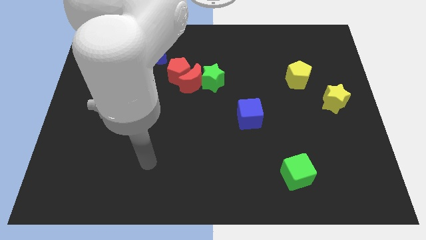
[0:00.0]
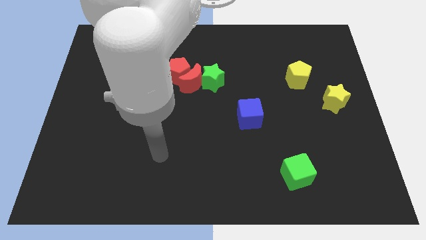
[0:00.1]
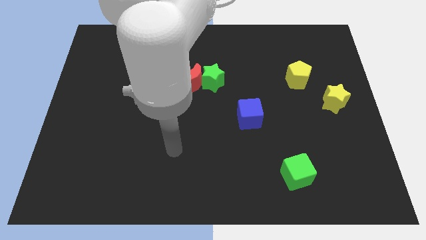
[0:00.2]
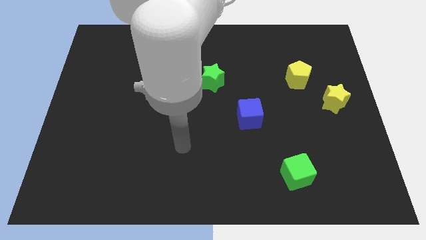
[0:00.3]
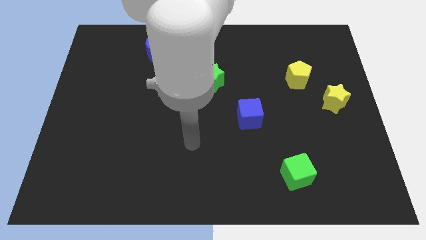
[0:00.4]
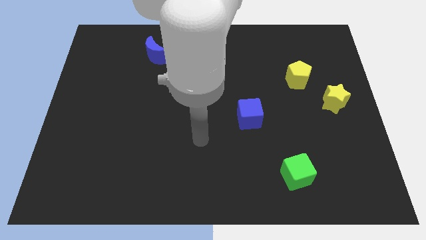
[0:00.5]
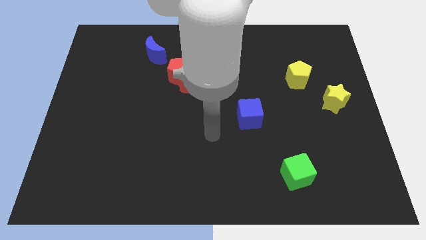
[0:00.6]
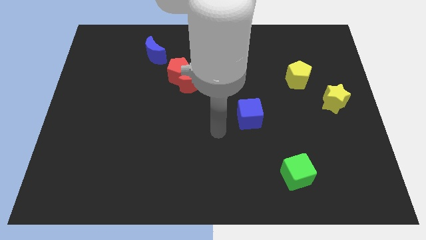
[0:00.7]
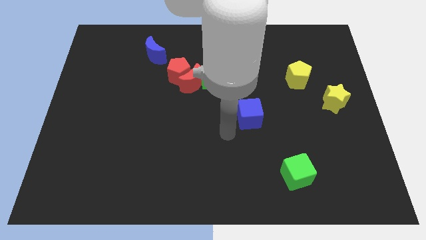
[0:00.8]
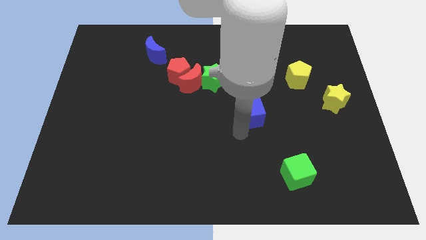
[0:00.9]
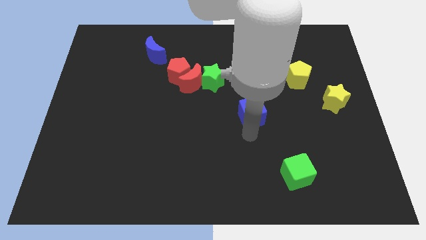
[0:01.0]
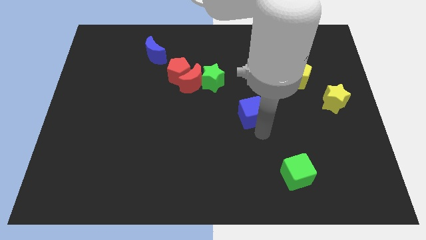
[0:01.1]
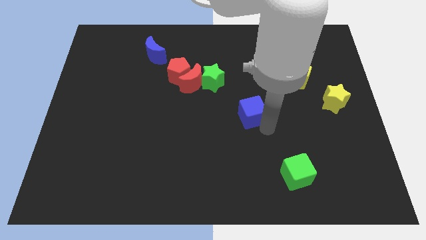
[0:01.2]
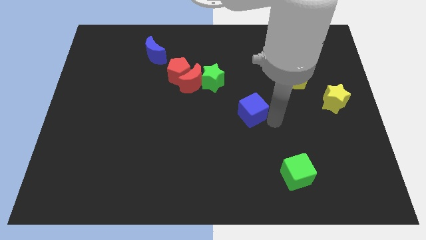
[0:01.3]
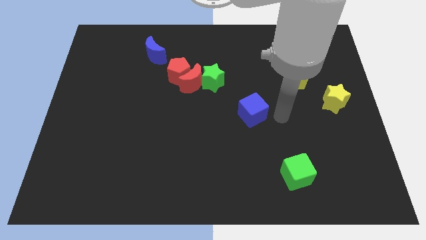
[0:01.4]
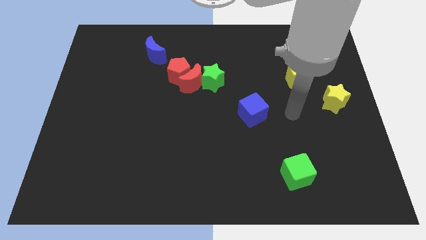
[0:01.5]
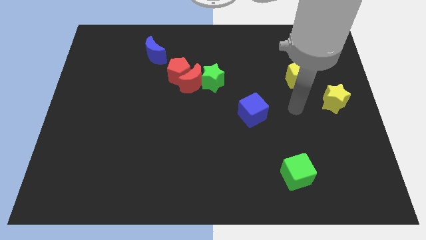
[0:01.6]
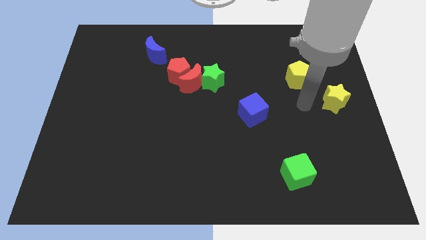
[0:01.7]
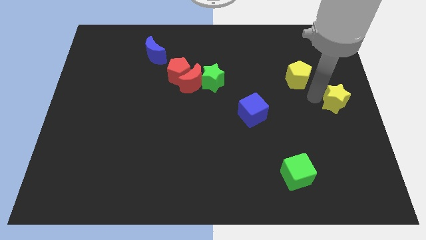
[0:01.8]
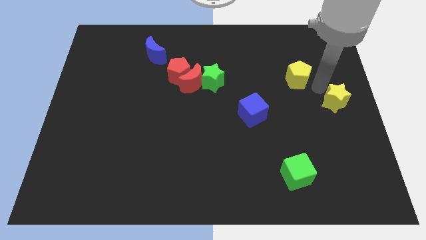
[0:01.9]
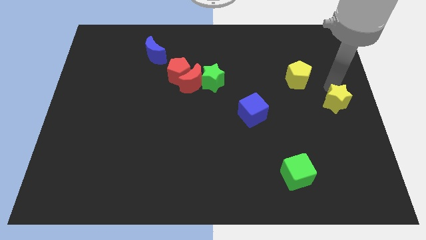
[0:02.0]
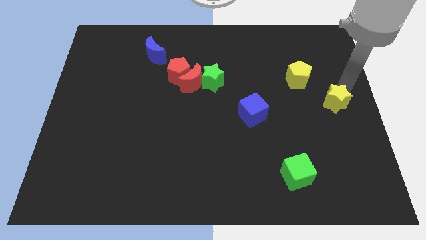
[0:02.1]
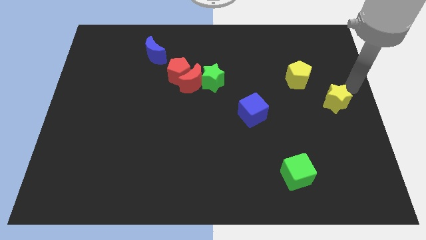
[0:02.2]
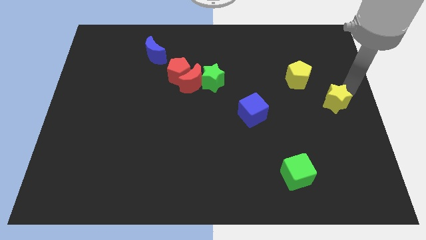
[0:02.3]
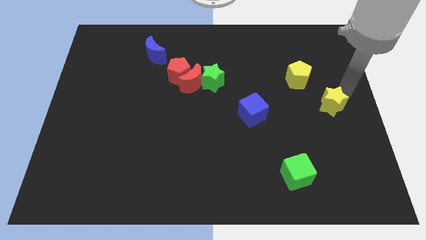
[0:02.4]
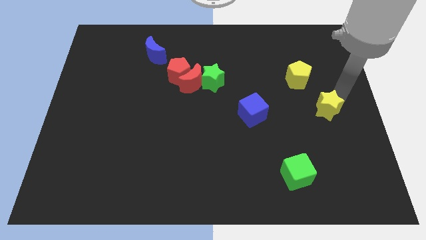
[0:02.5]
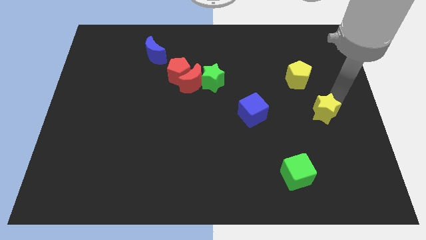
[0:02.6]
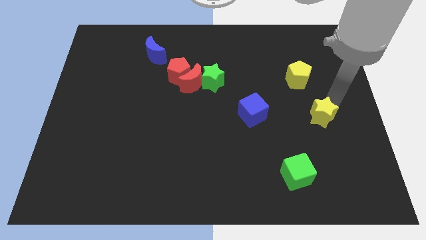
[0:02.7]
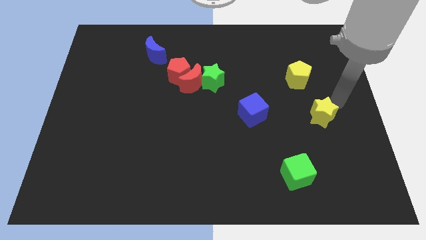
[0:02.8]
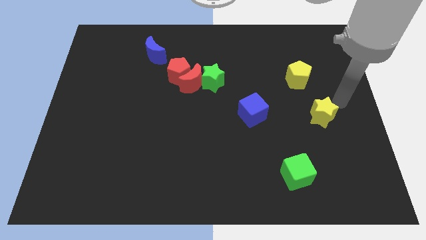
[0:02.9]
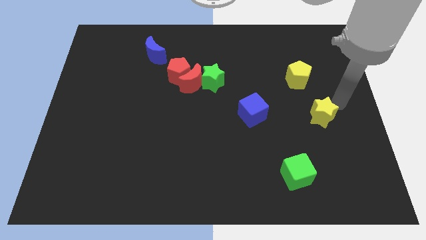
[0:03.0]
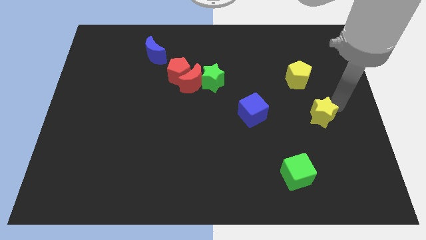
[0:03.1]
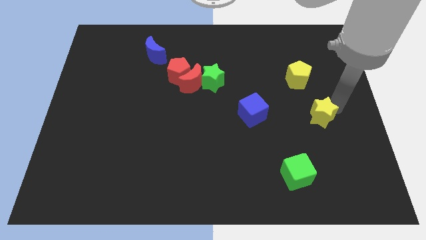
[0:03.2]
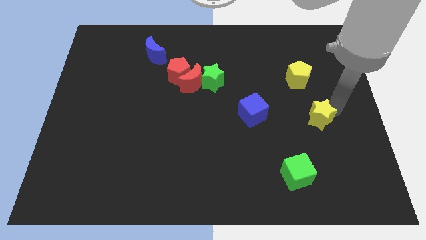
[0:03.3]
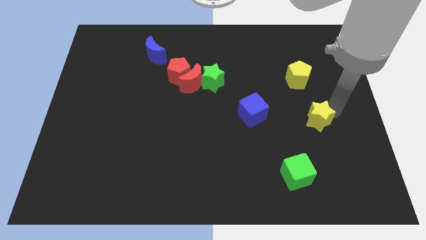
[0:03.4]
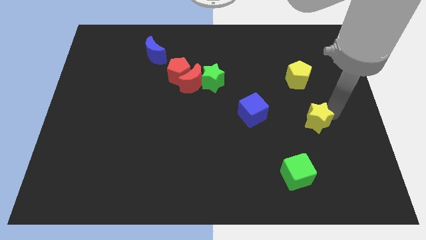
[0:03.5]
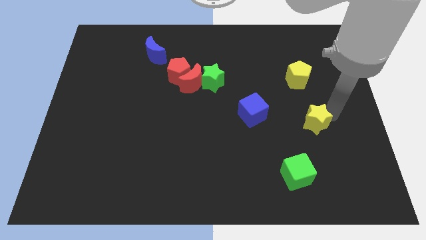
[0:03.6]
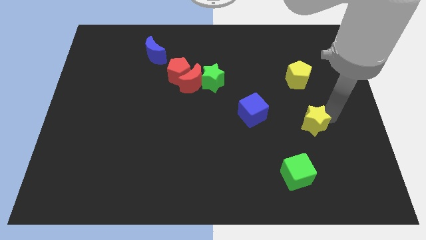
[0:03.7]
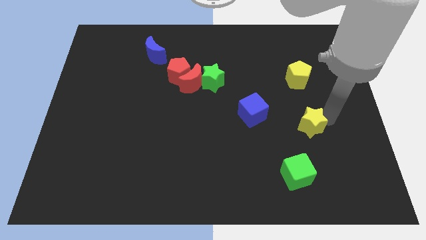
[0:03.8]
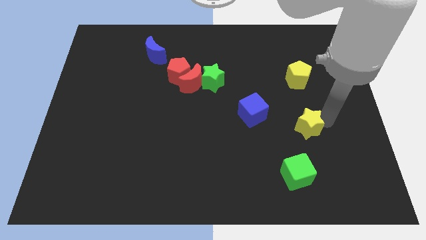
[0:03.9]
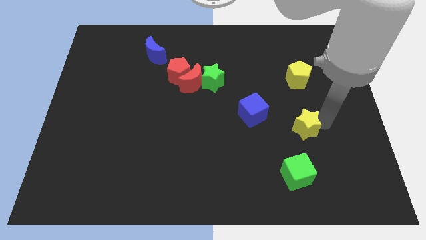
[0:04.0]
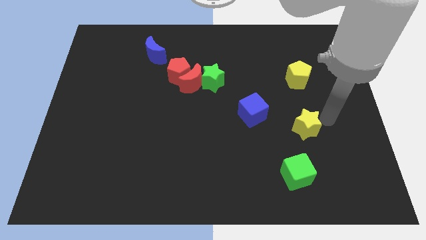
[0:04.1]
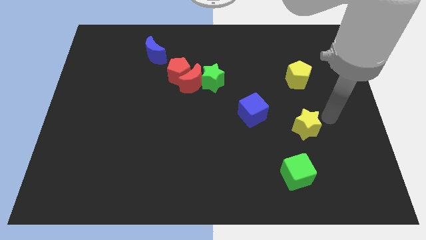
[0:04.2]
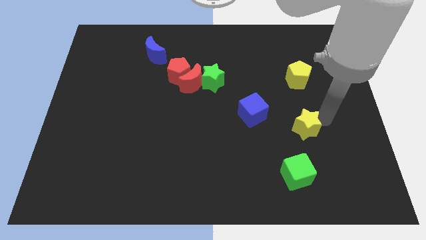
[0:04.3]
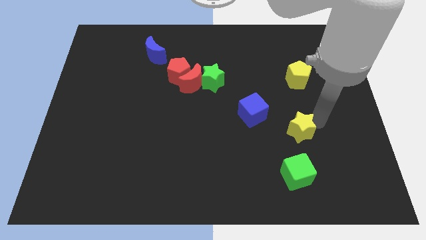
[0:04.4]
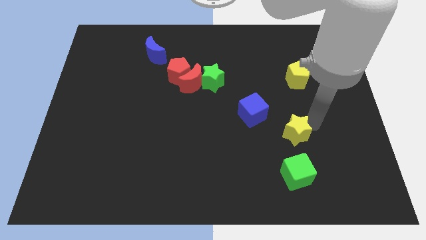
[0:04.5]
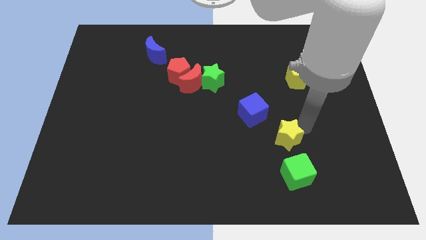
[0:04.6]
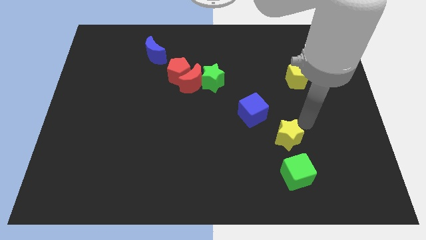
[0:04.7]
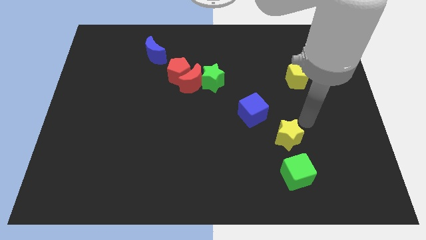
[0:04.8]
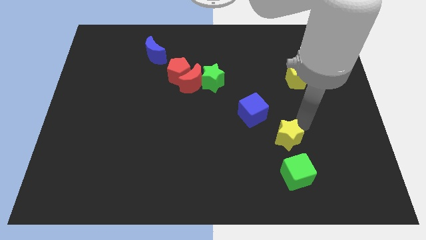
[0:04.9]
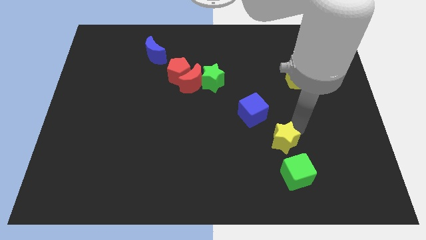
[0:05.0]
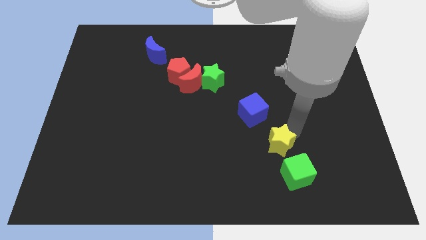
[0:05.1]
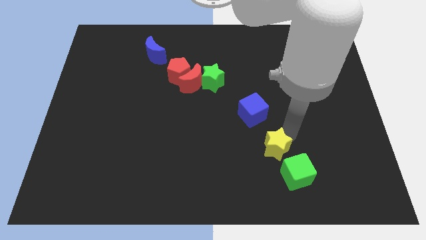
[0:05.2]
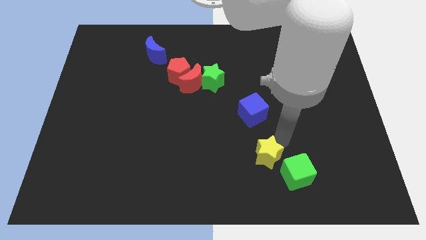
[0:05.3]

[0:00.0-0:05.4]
move the yellow star left of the green cube
